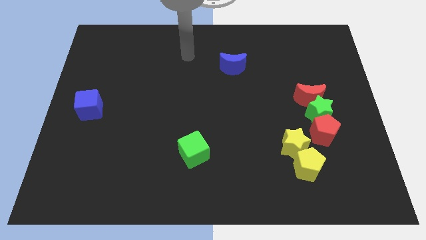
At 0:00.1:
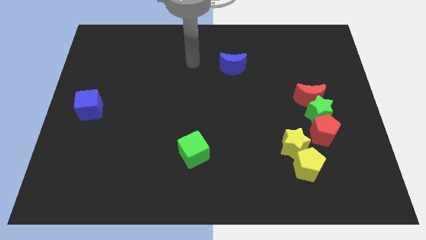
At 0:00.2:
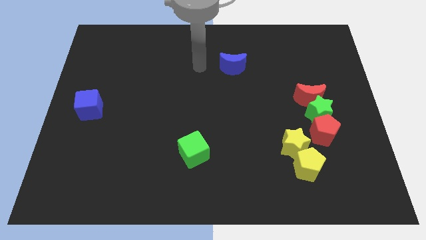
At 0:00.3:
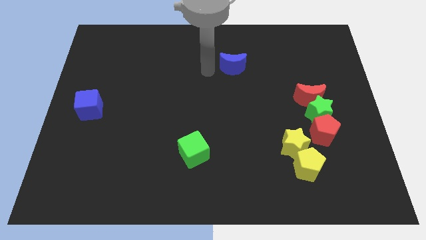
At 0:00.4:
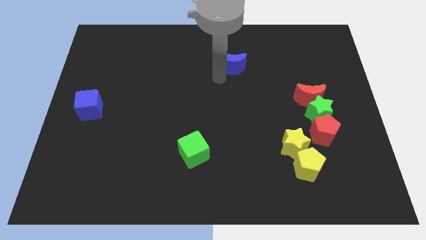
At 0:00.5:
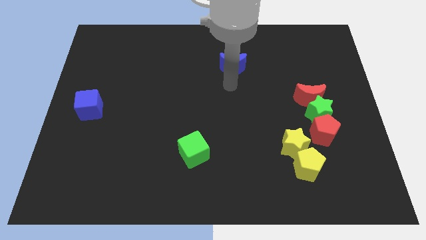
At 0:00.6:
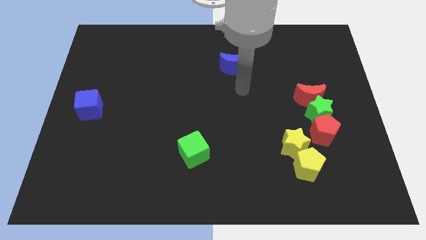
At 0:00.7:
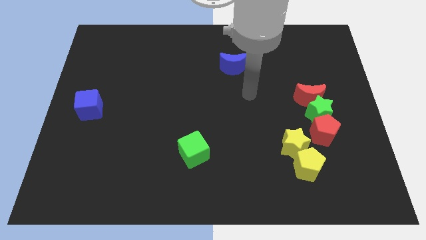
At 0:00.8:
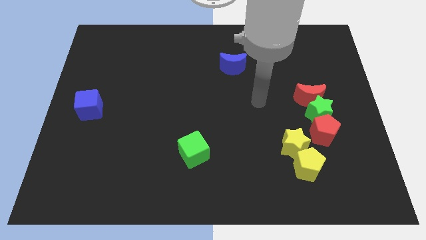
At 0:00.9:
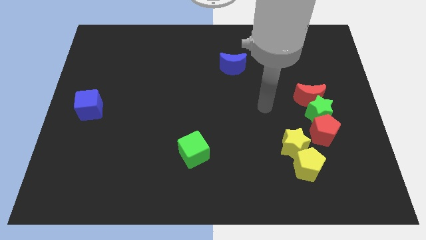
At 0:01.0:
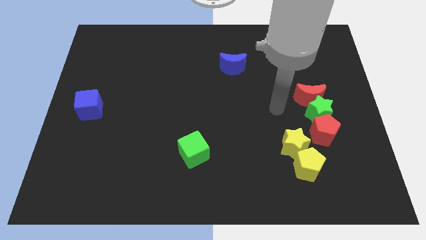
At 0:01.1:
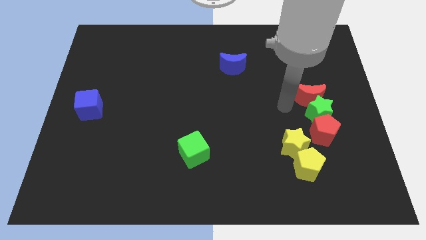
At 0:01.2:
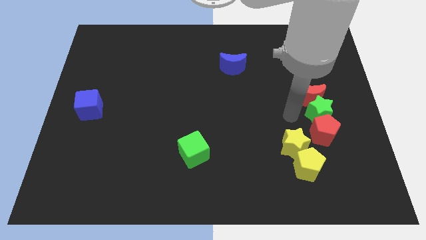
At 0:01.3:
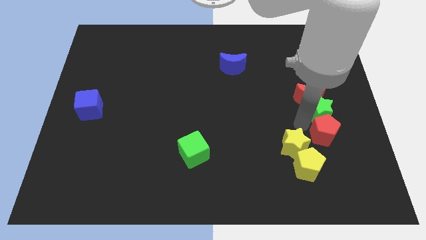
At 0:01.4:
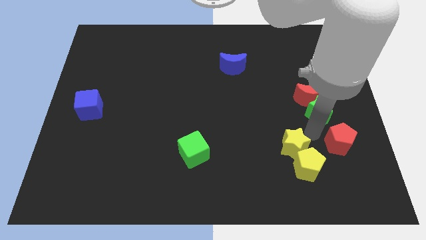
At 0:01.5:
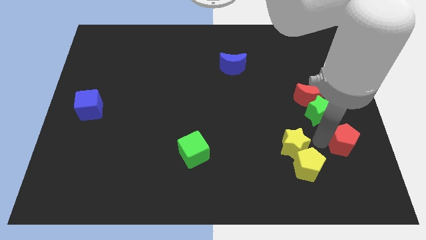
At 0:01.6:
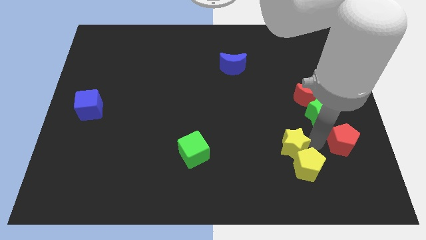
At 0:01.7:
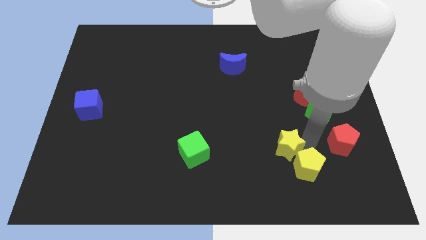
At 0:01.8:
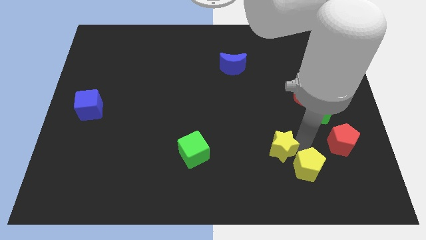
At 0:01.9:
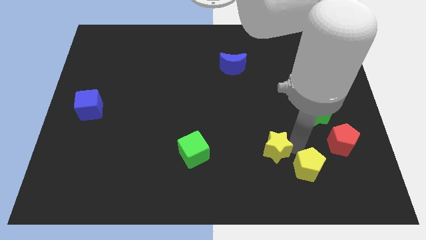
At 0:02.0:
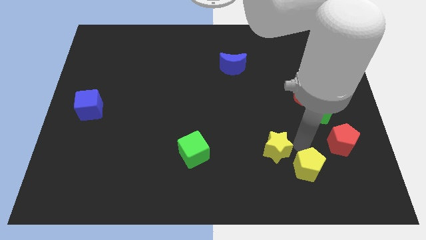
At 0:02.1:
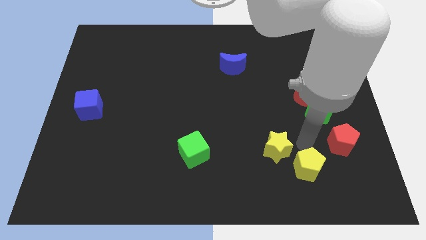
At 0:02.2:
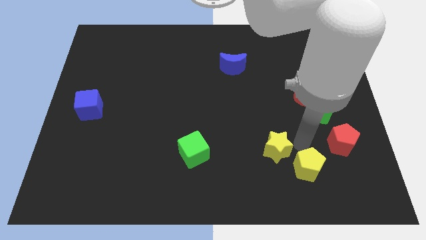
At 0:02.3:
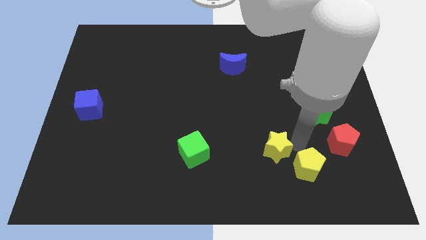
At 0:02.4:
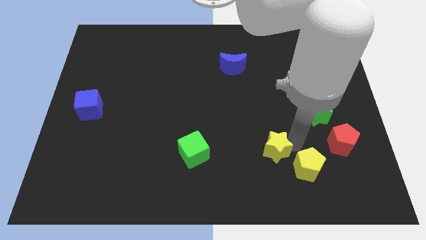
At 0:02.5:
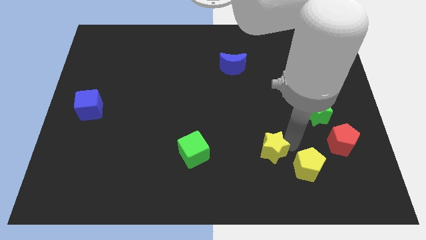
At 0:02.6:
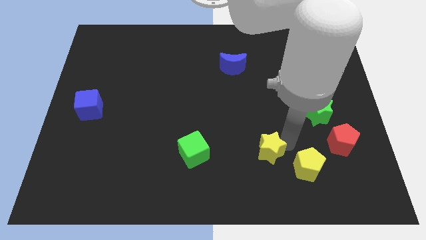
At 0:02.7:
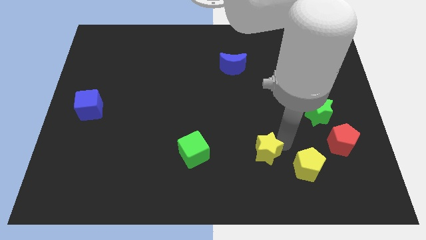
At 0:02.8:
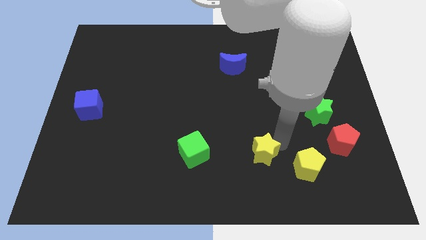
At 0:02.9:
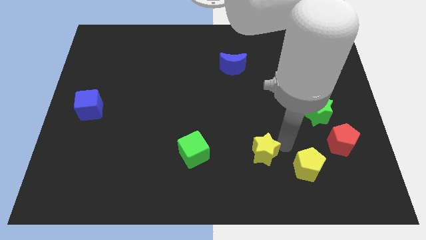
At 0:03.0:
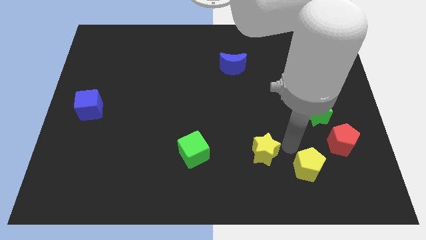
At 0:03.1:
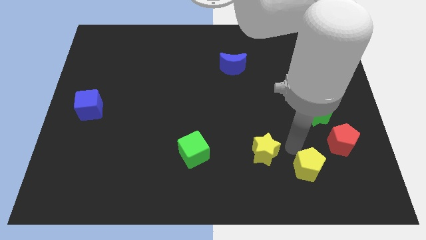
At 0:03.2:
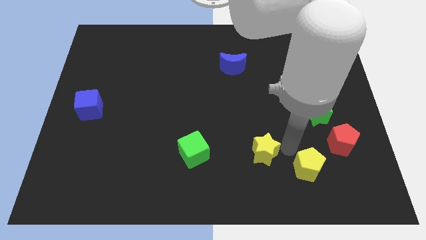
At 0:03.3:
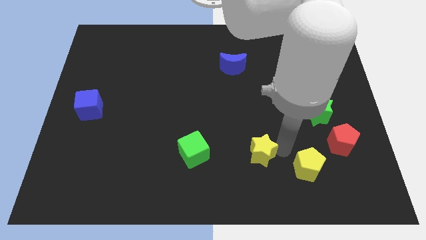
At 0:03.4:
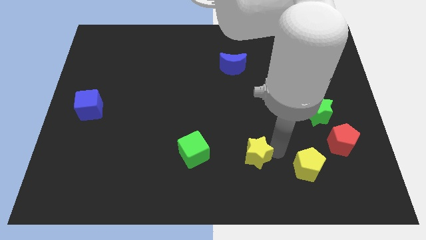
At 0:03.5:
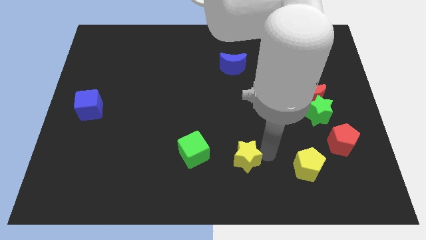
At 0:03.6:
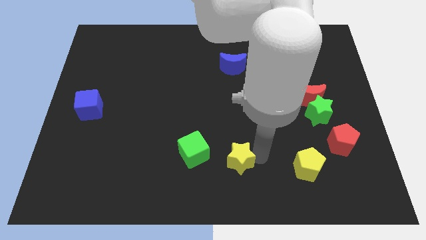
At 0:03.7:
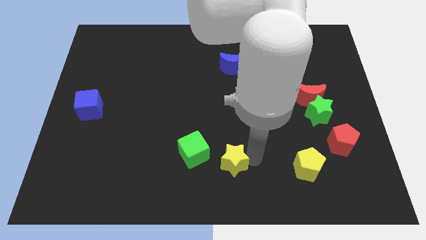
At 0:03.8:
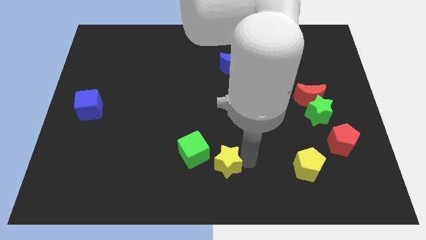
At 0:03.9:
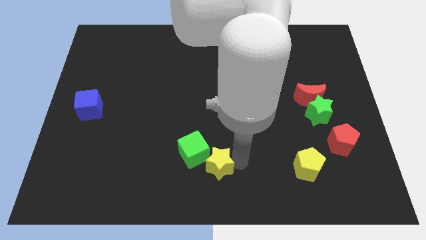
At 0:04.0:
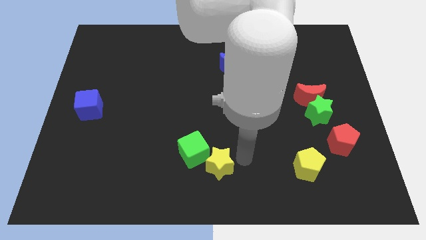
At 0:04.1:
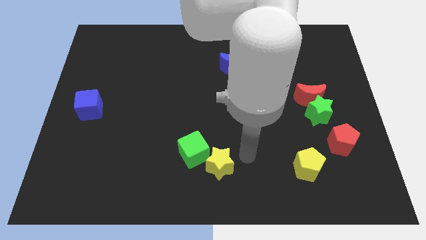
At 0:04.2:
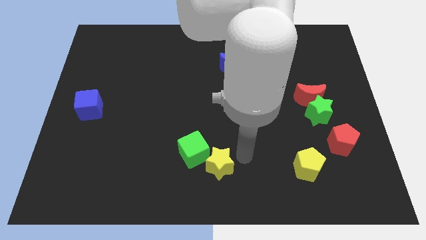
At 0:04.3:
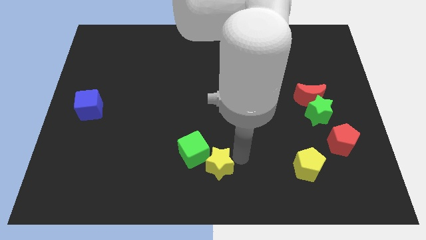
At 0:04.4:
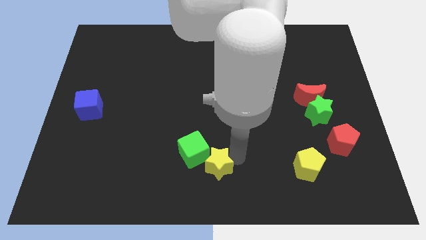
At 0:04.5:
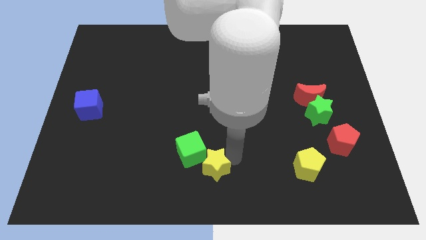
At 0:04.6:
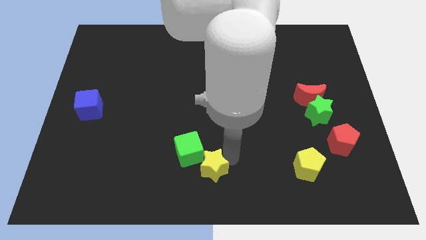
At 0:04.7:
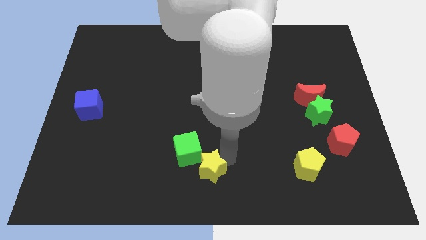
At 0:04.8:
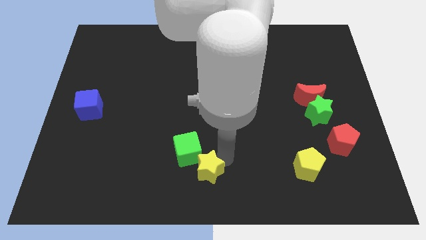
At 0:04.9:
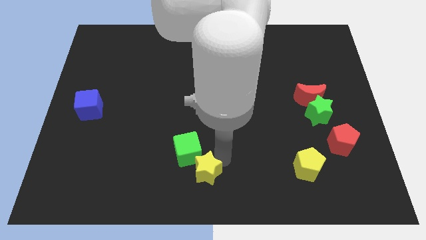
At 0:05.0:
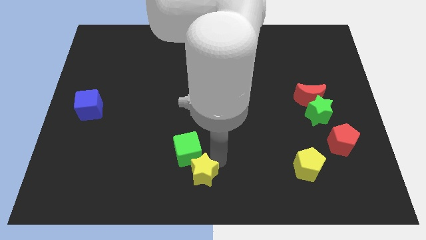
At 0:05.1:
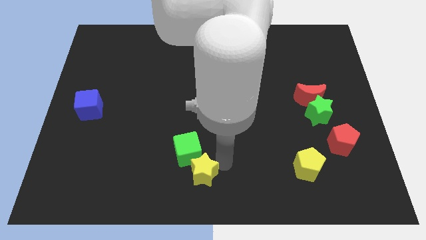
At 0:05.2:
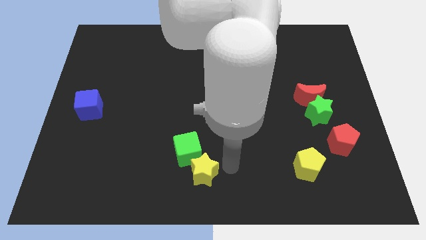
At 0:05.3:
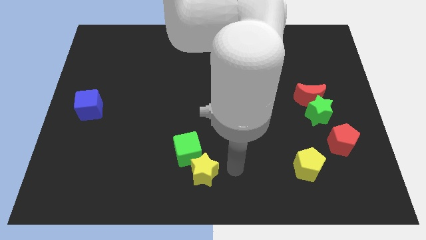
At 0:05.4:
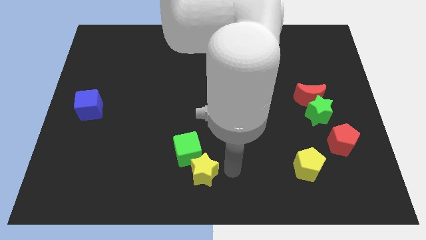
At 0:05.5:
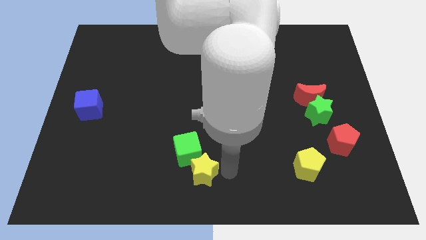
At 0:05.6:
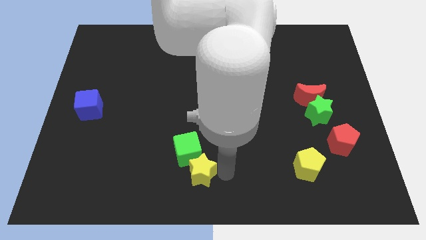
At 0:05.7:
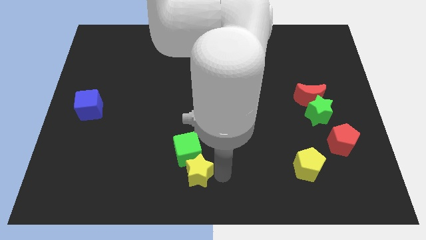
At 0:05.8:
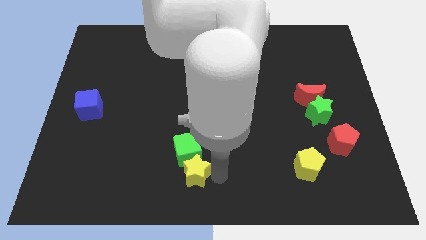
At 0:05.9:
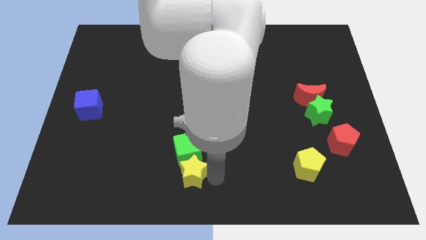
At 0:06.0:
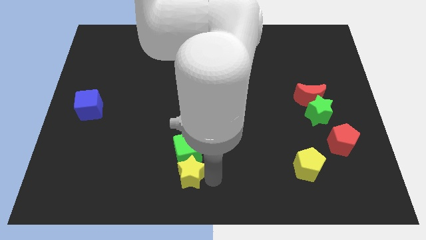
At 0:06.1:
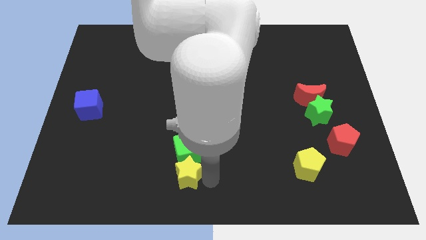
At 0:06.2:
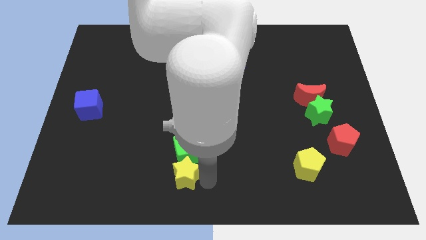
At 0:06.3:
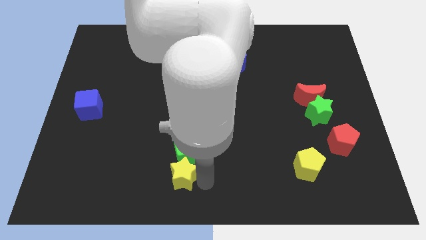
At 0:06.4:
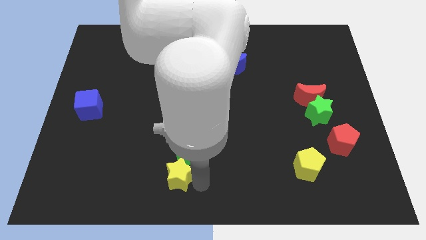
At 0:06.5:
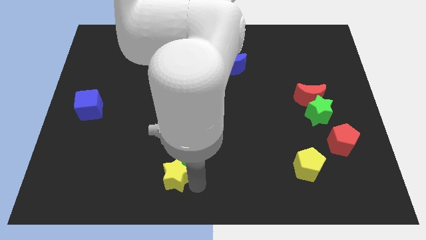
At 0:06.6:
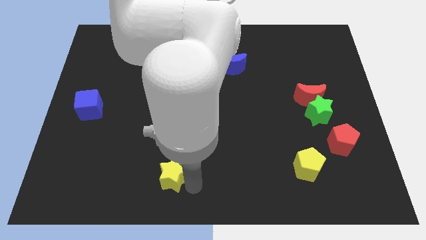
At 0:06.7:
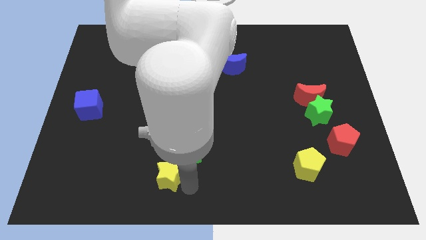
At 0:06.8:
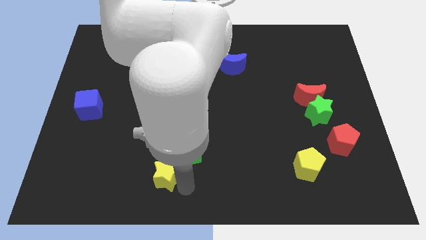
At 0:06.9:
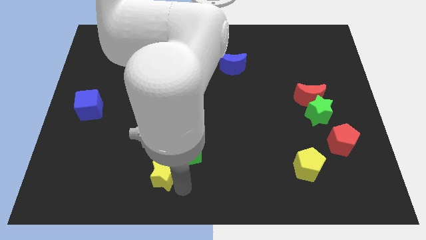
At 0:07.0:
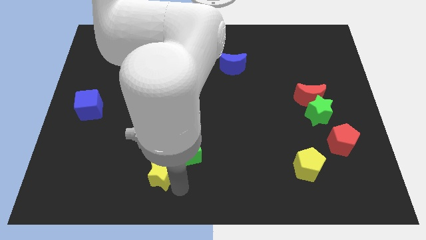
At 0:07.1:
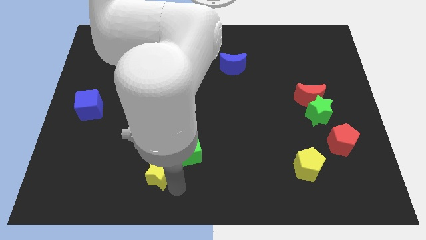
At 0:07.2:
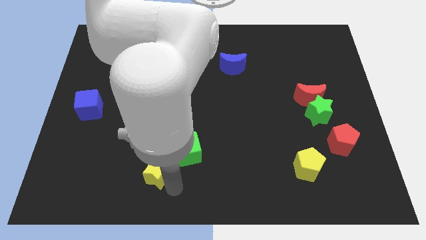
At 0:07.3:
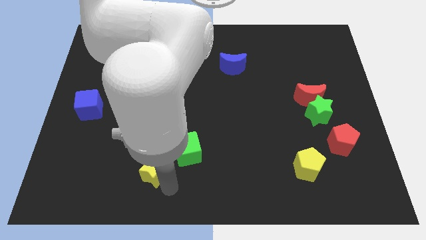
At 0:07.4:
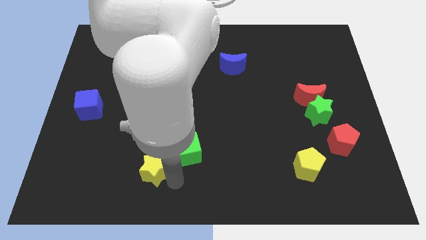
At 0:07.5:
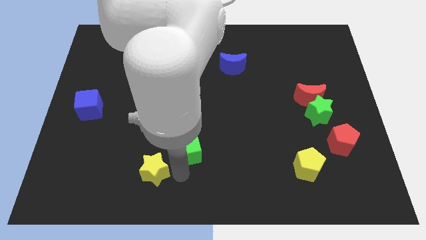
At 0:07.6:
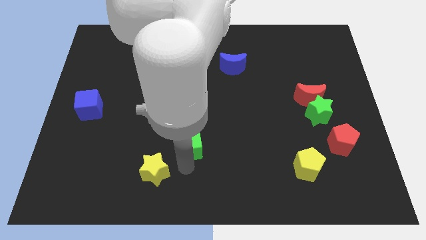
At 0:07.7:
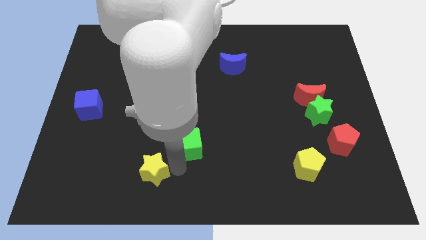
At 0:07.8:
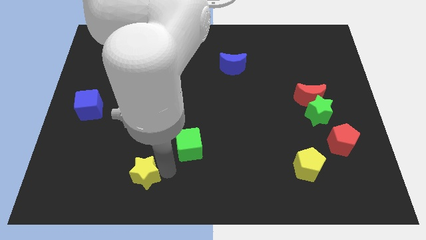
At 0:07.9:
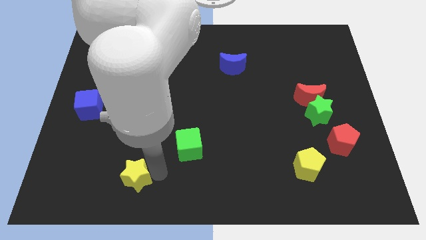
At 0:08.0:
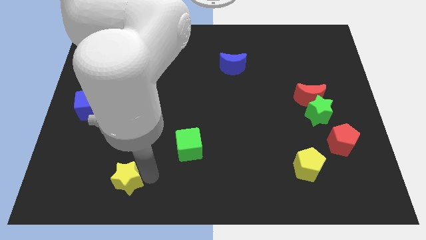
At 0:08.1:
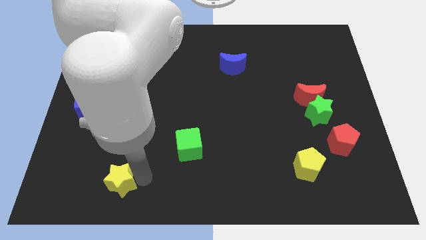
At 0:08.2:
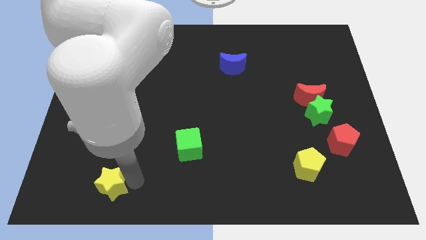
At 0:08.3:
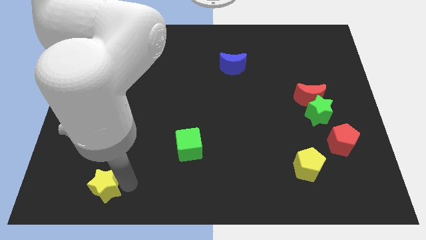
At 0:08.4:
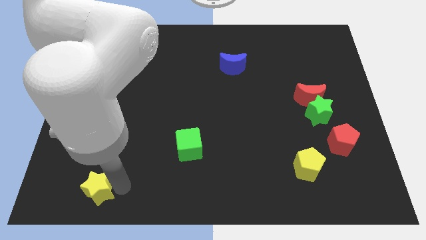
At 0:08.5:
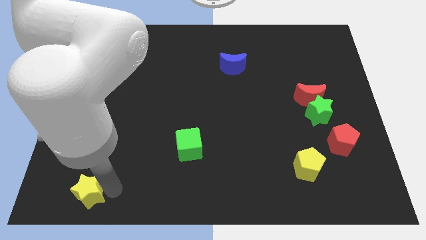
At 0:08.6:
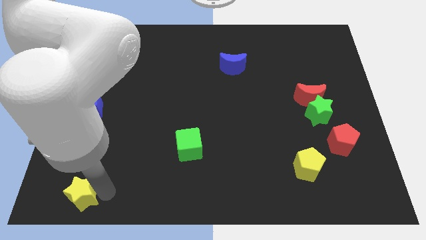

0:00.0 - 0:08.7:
slide the yellow star to the lower left corner
